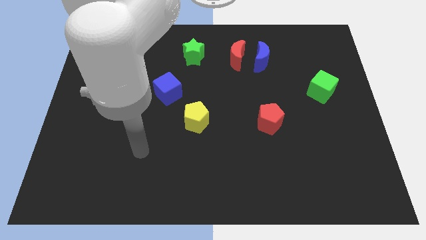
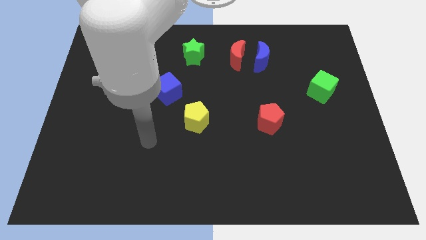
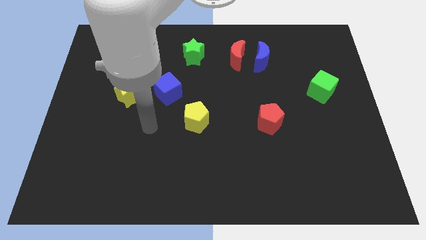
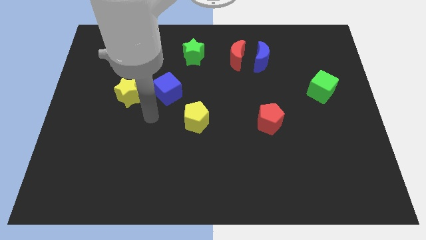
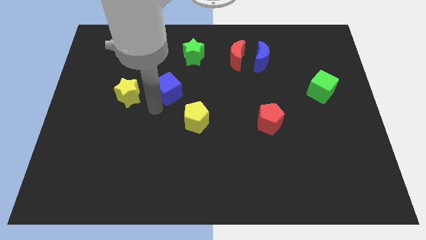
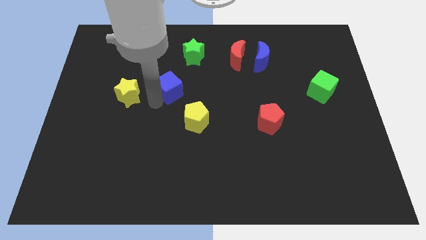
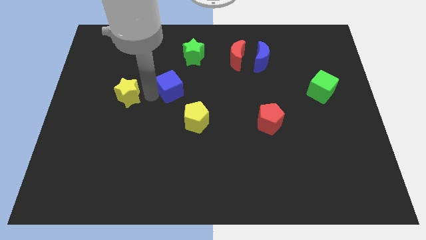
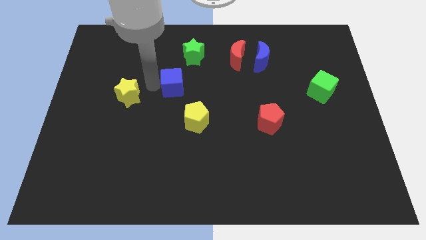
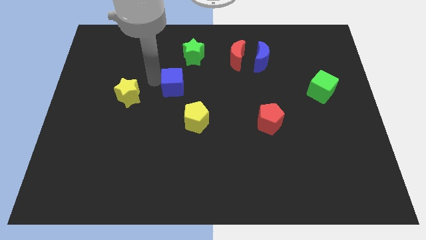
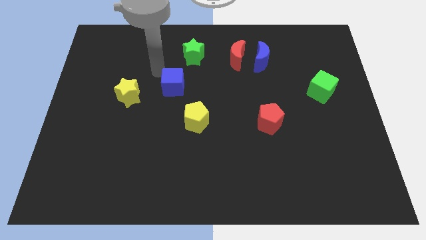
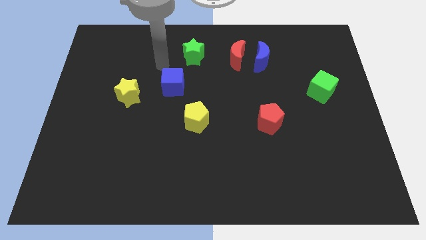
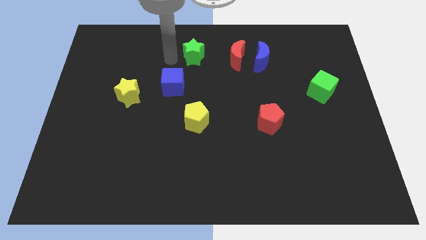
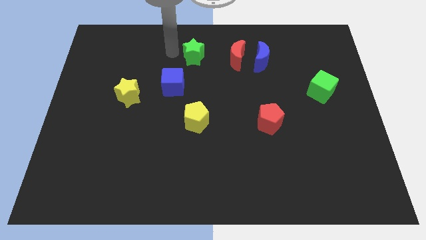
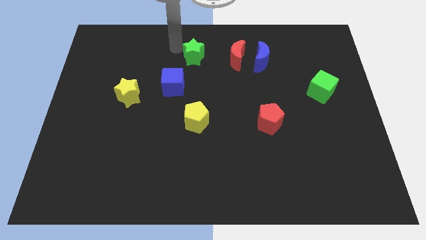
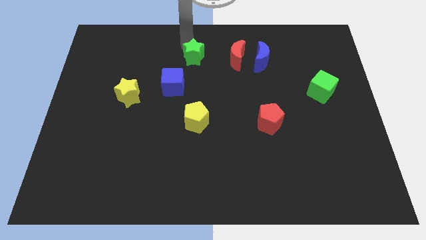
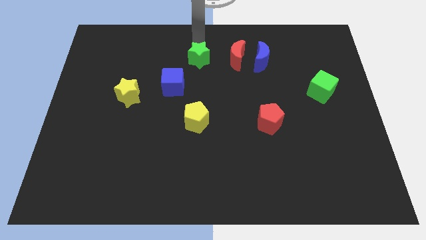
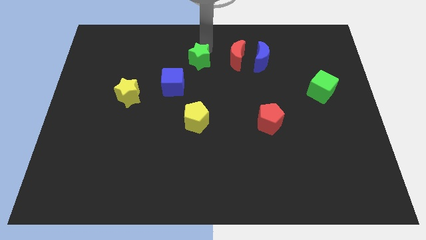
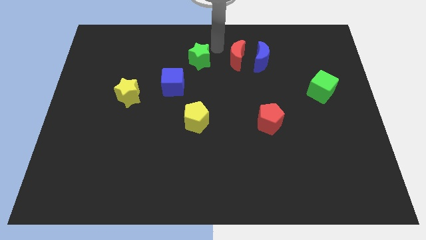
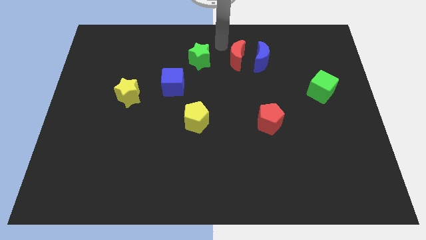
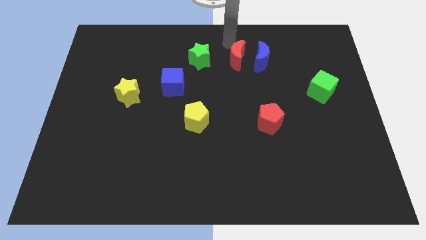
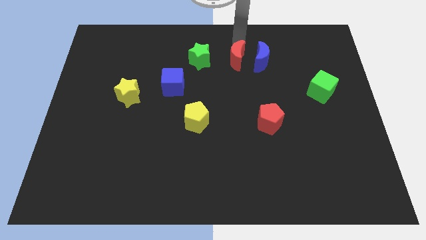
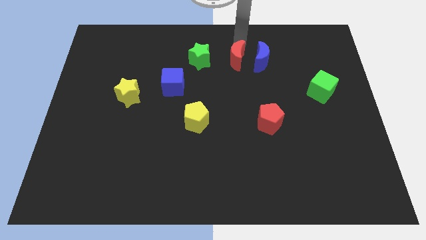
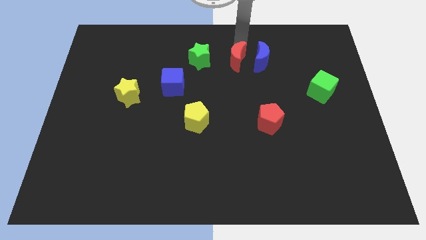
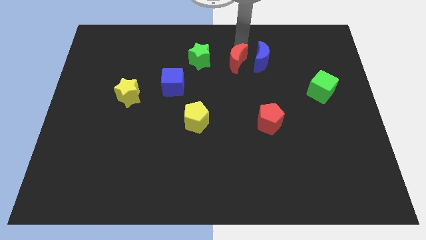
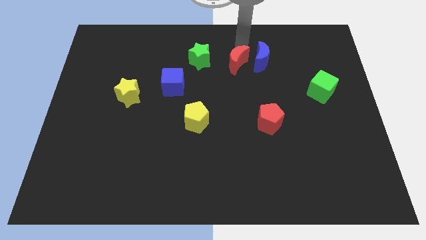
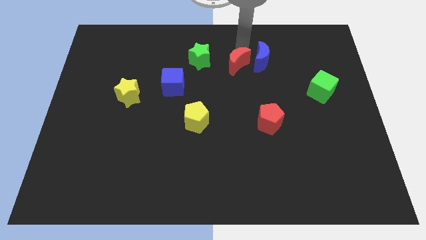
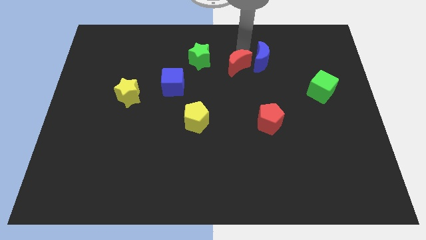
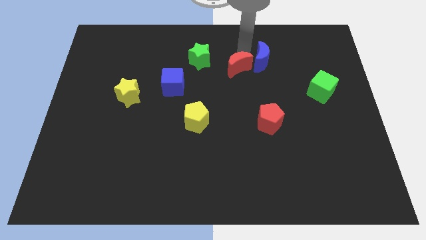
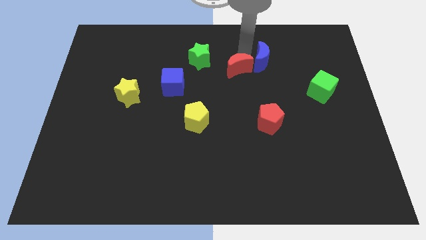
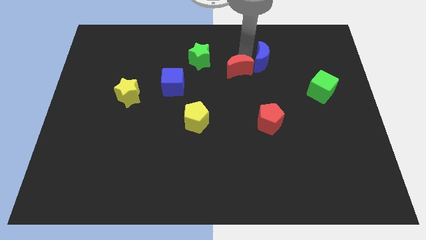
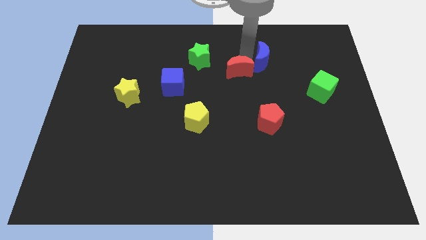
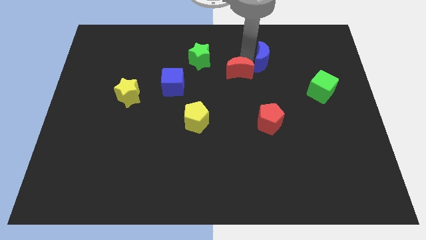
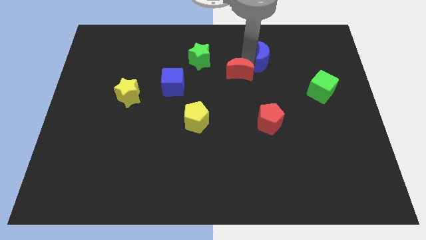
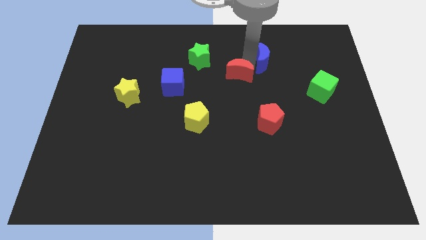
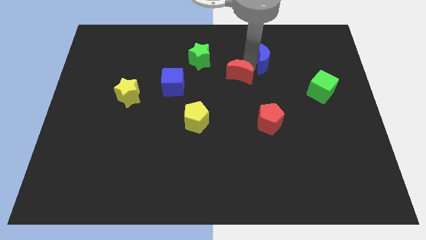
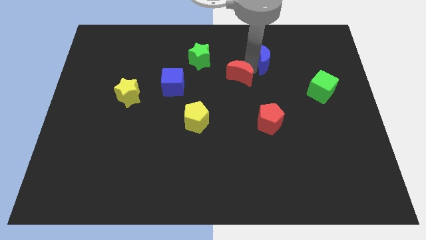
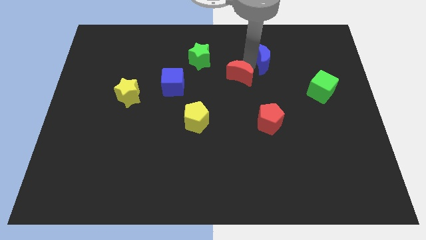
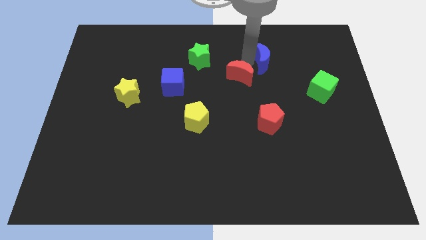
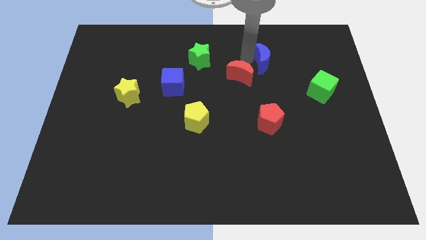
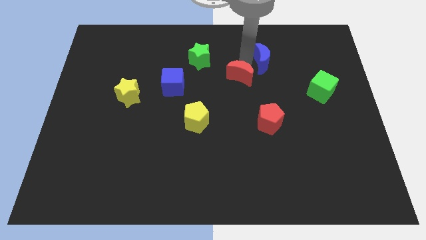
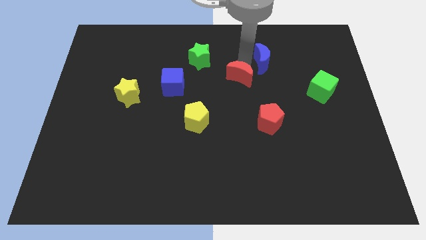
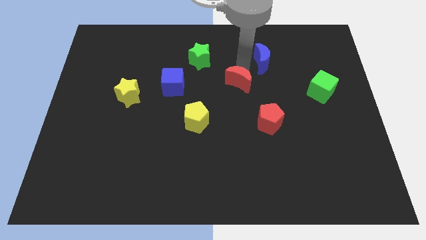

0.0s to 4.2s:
slightly push the red moon down

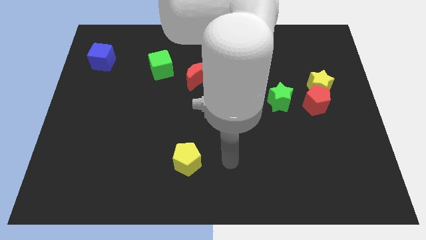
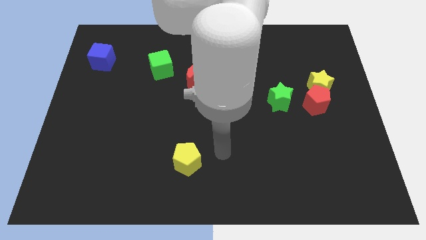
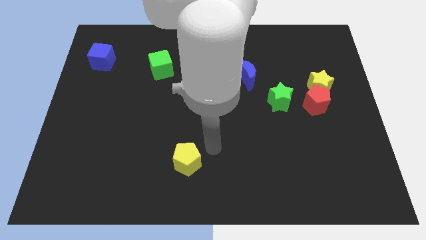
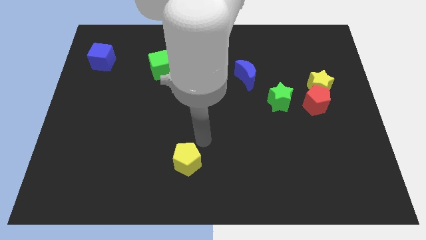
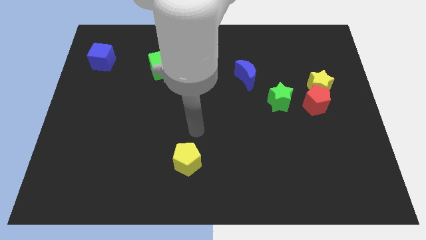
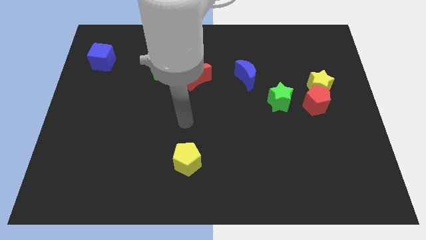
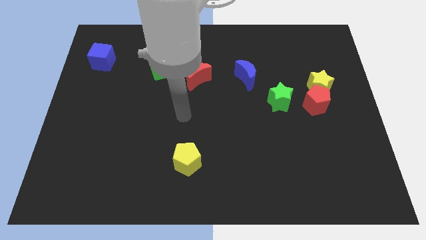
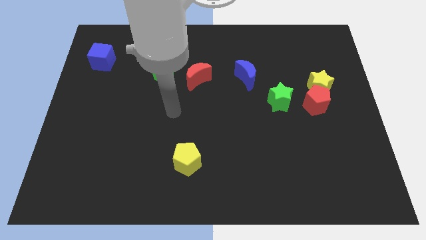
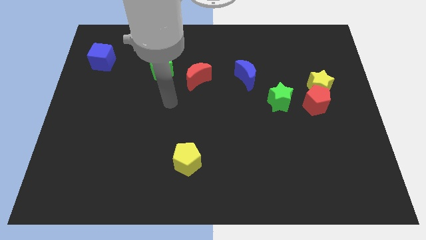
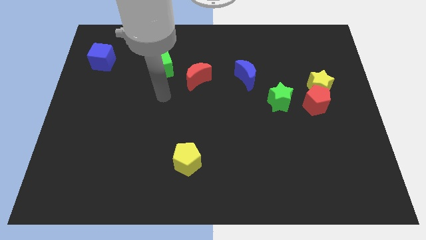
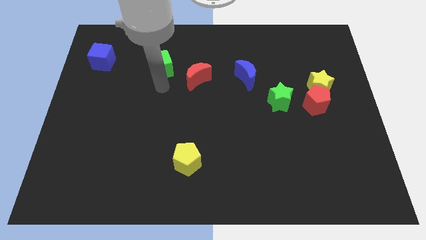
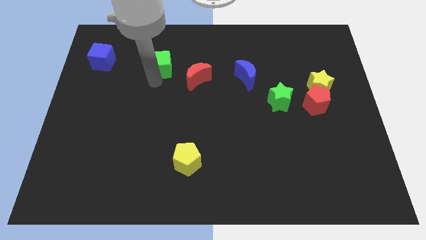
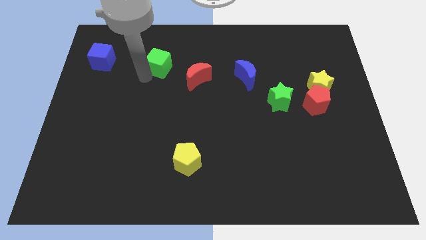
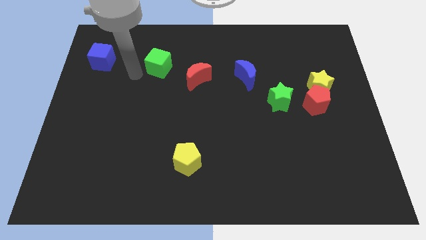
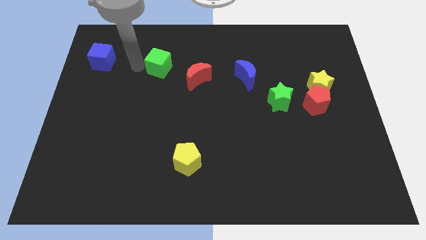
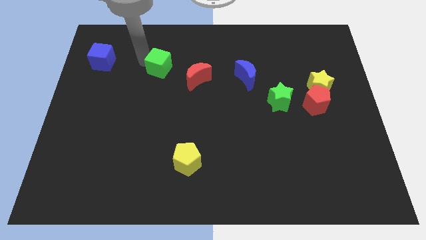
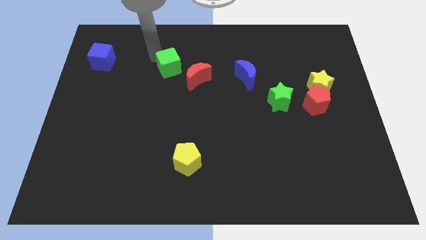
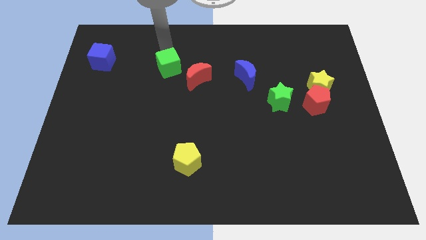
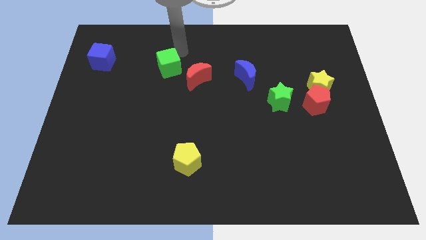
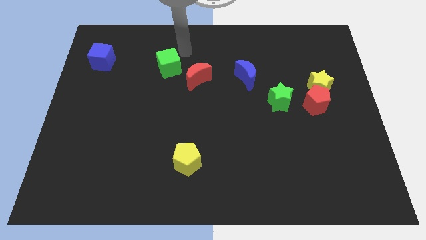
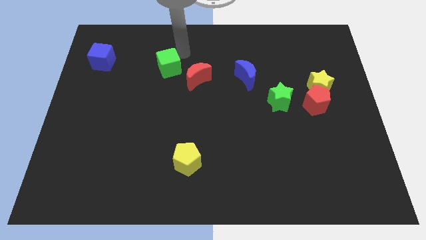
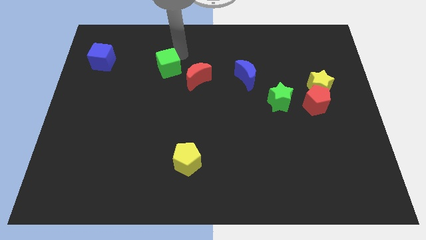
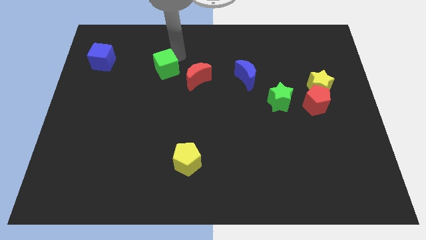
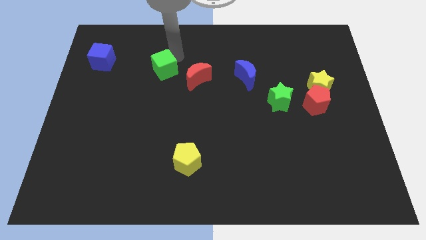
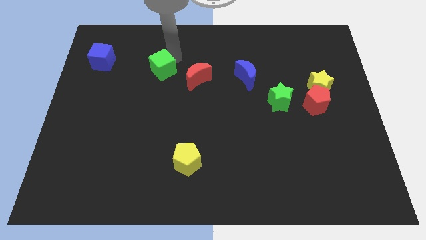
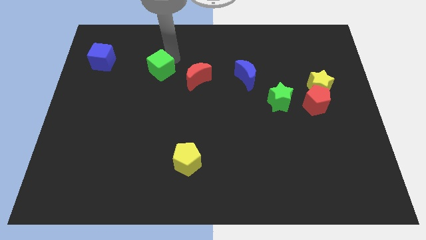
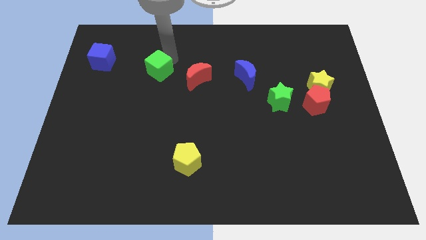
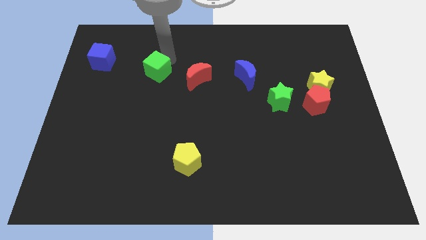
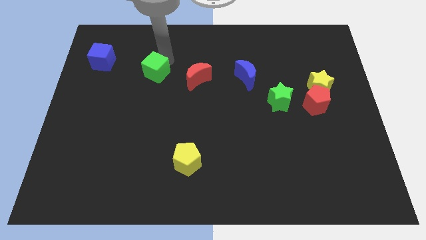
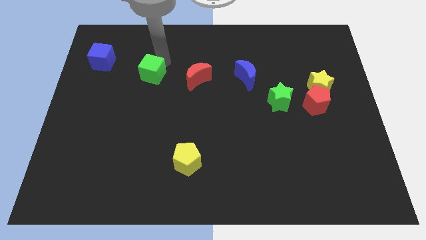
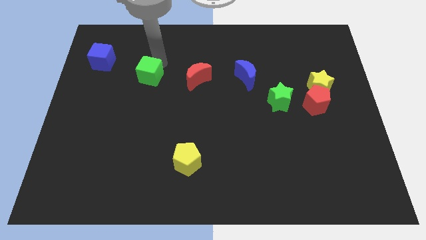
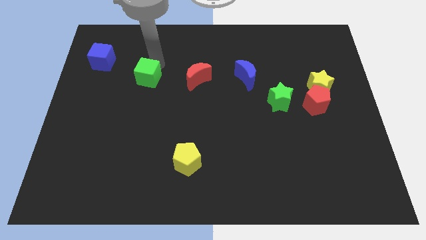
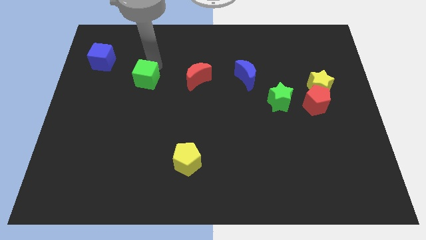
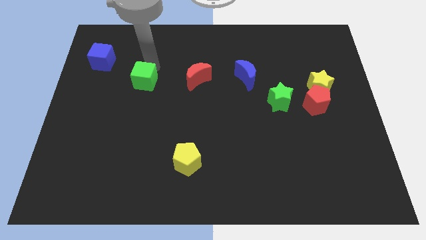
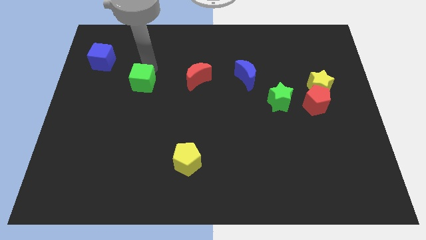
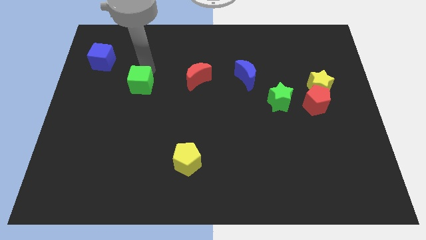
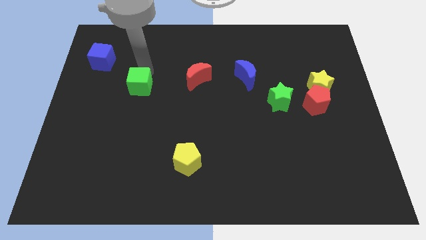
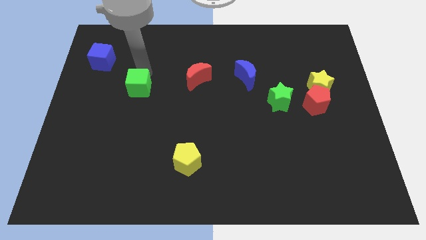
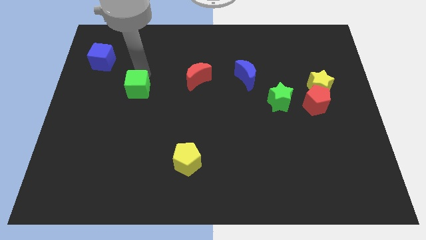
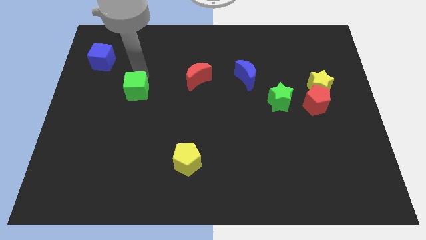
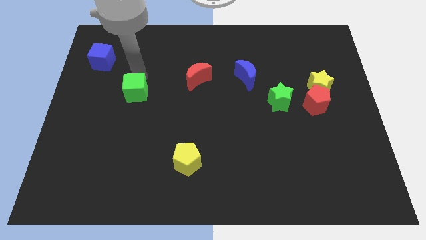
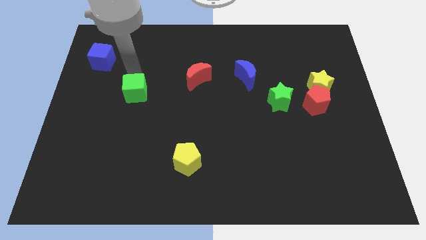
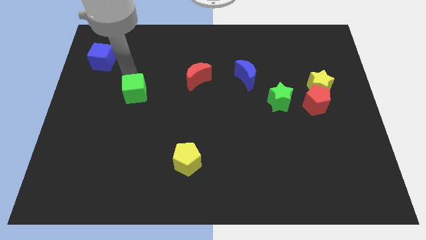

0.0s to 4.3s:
slightly slide the green cube downwards
